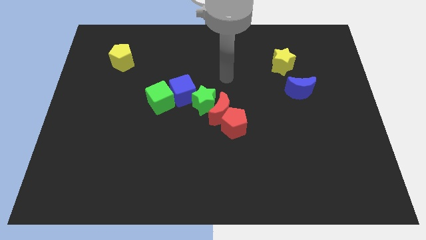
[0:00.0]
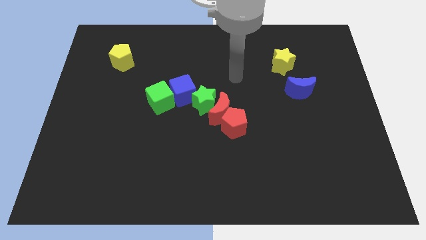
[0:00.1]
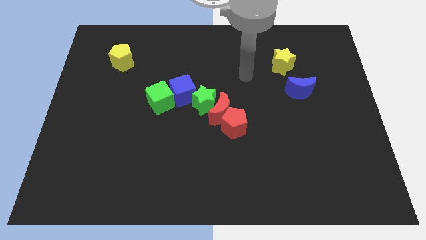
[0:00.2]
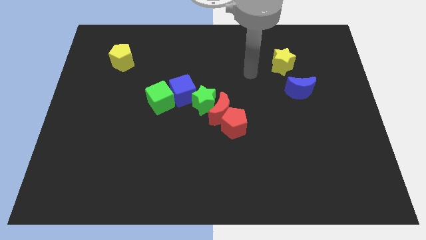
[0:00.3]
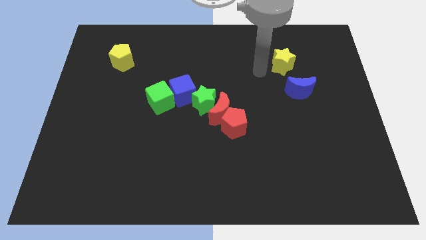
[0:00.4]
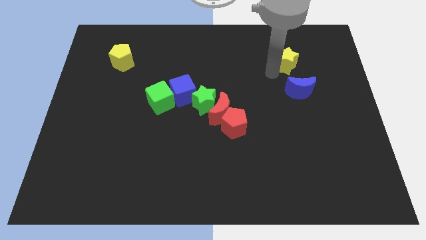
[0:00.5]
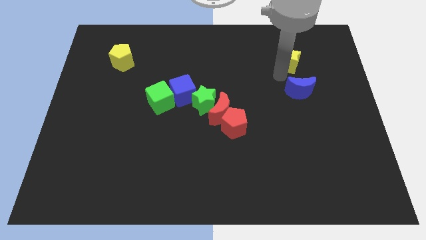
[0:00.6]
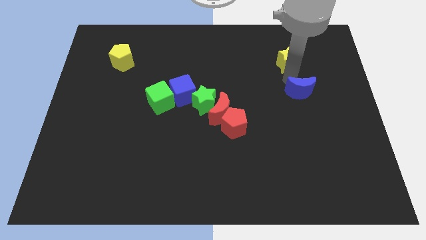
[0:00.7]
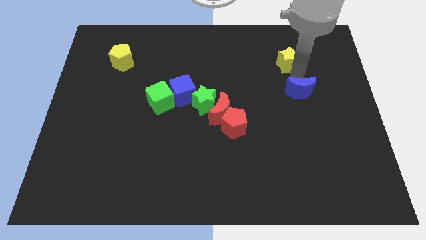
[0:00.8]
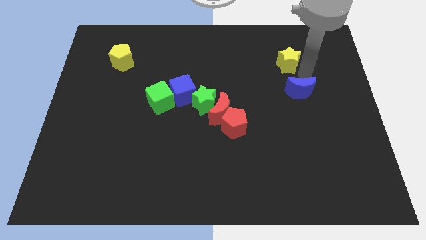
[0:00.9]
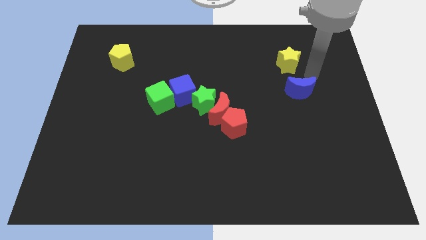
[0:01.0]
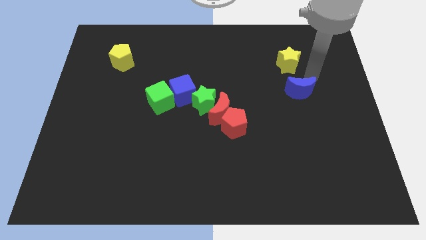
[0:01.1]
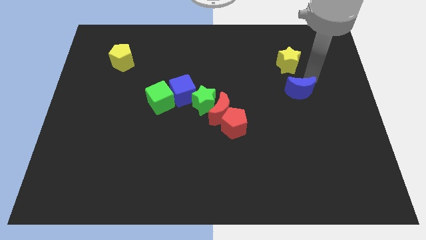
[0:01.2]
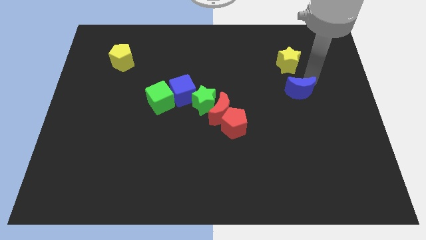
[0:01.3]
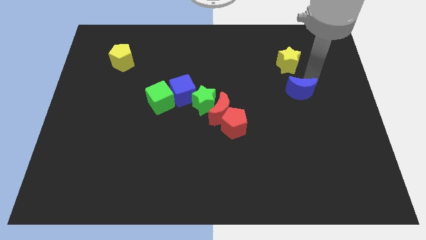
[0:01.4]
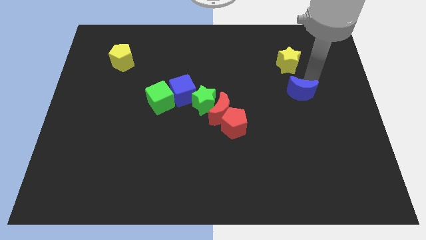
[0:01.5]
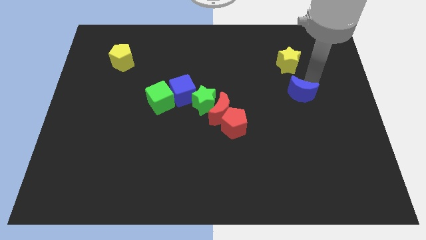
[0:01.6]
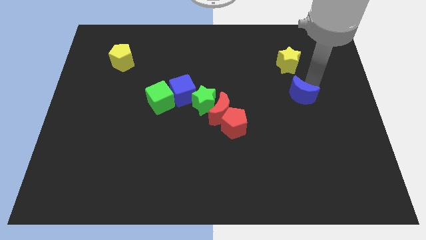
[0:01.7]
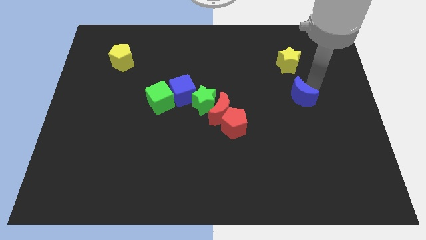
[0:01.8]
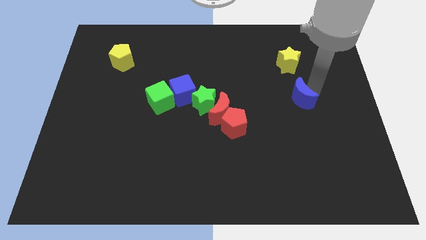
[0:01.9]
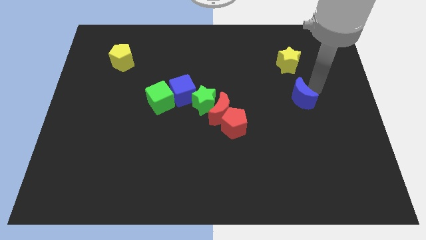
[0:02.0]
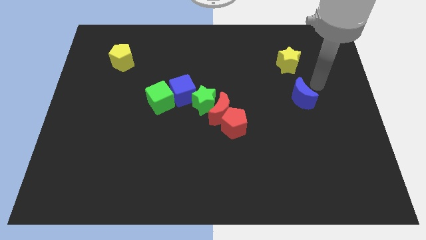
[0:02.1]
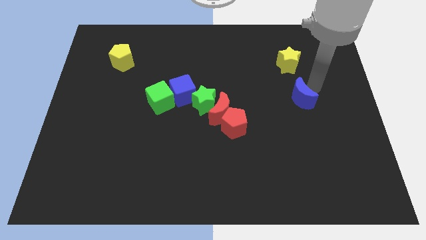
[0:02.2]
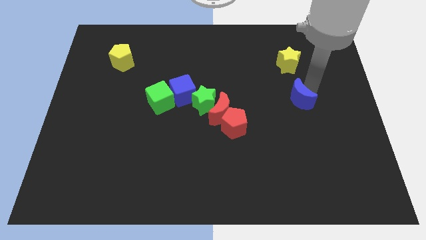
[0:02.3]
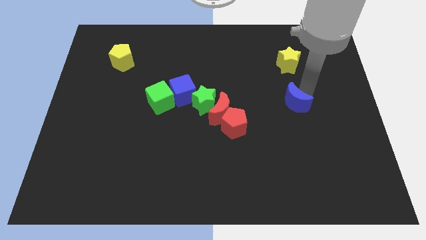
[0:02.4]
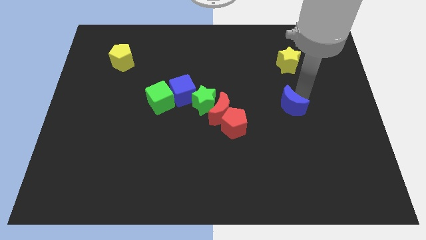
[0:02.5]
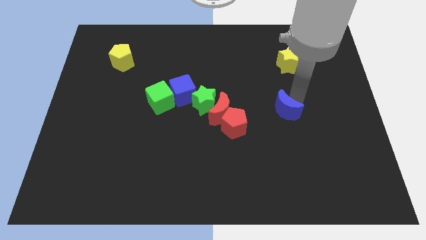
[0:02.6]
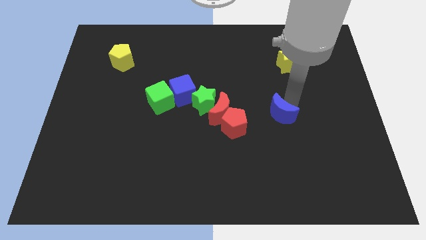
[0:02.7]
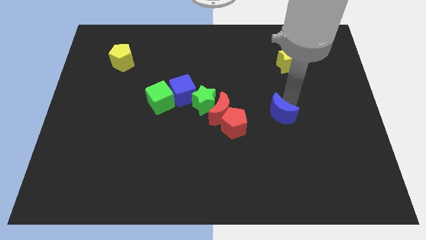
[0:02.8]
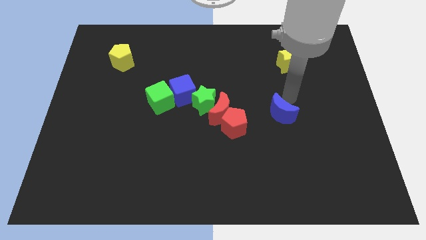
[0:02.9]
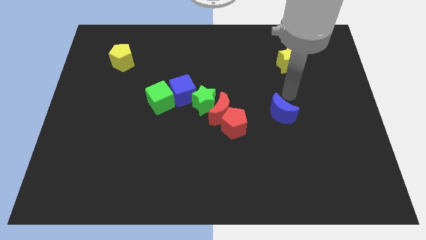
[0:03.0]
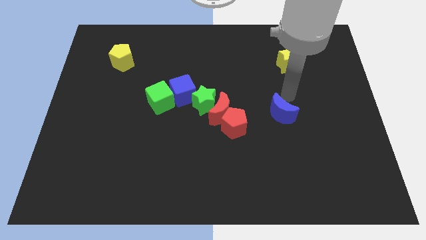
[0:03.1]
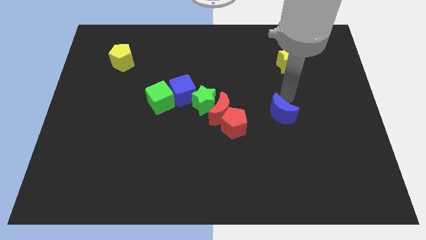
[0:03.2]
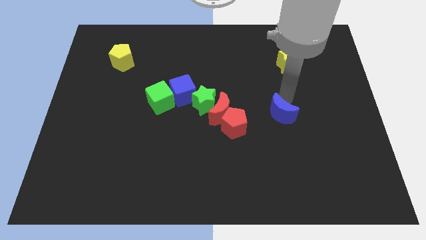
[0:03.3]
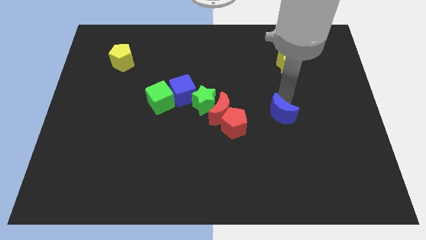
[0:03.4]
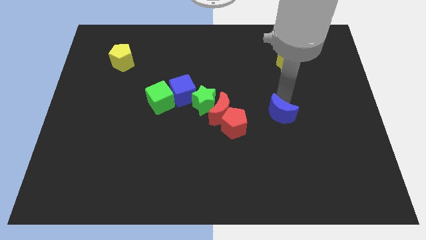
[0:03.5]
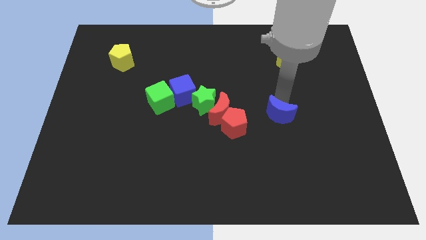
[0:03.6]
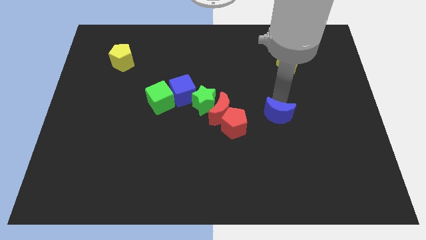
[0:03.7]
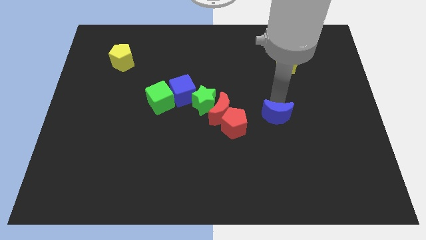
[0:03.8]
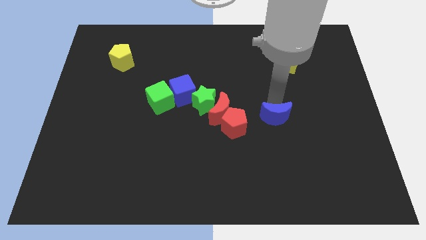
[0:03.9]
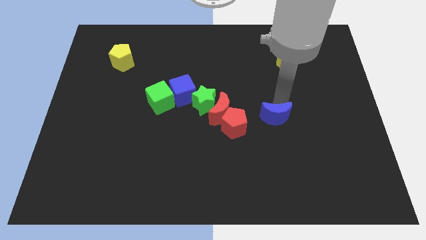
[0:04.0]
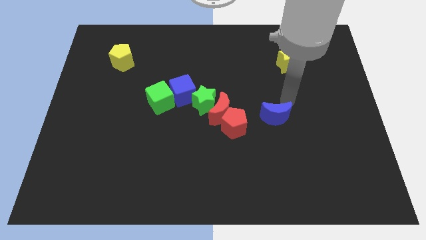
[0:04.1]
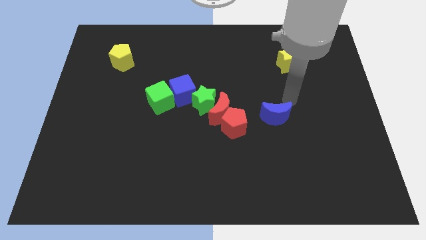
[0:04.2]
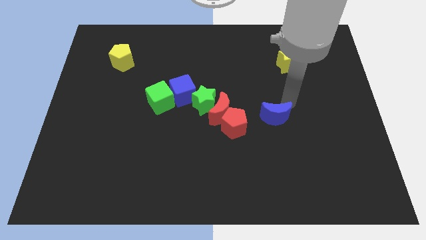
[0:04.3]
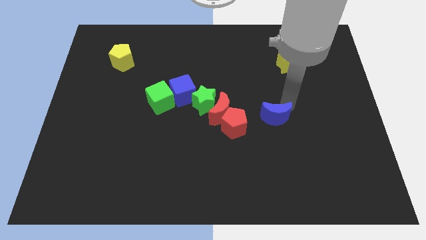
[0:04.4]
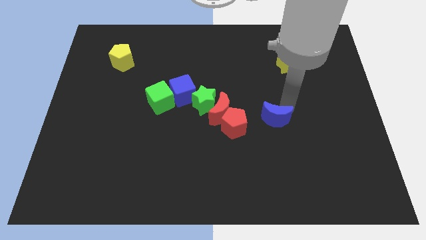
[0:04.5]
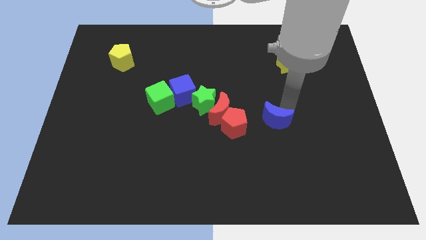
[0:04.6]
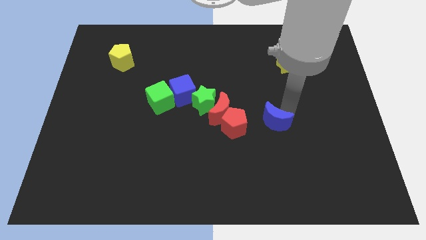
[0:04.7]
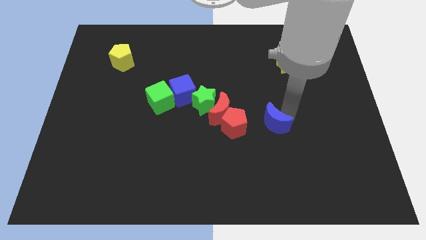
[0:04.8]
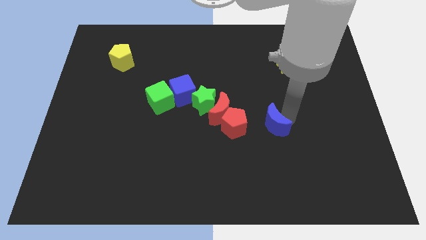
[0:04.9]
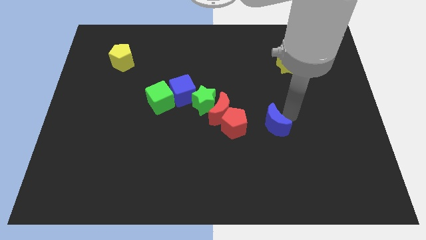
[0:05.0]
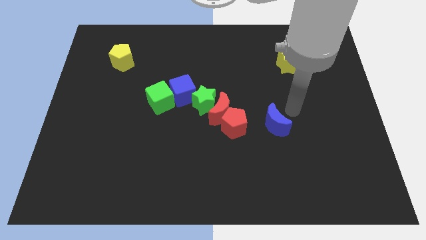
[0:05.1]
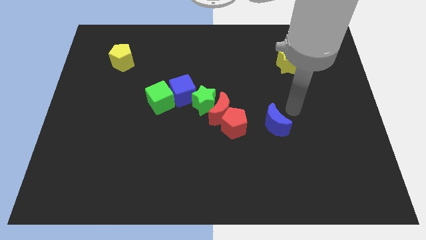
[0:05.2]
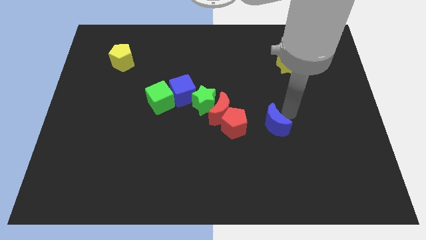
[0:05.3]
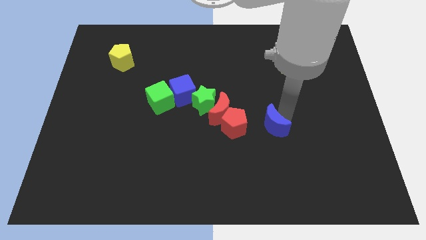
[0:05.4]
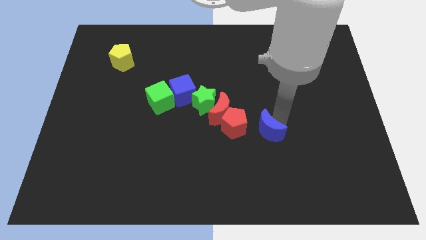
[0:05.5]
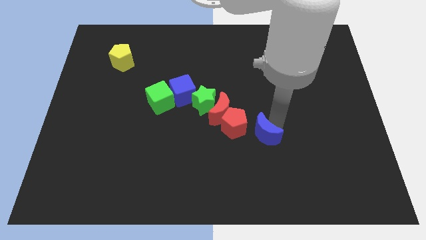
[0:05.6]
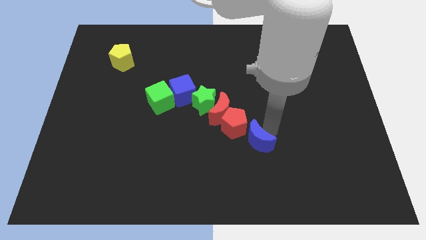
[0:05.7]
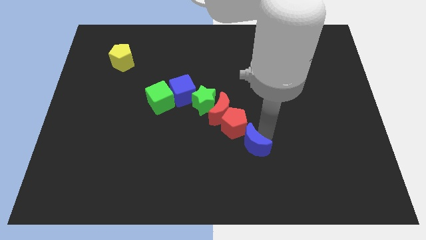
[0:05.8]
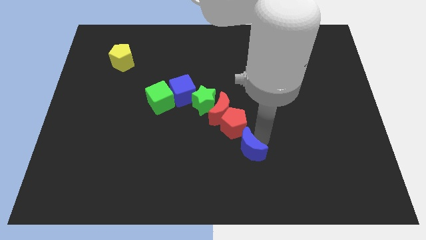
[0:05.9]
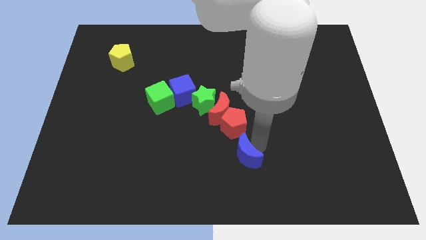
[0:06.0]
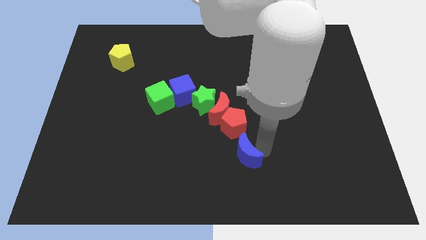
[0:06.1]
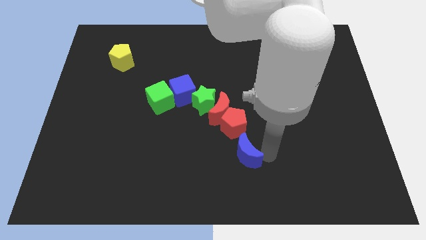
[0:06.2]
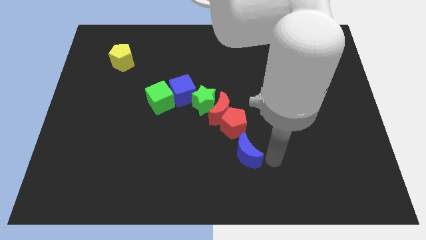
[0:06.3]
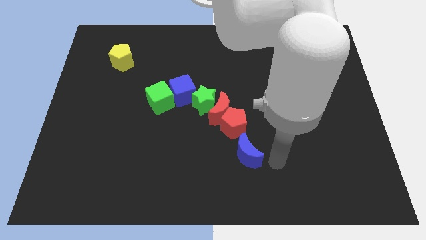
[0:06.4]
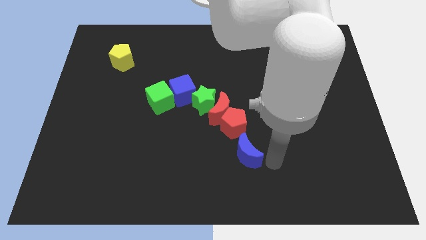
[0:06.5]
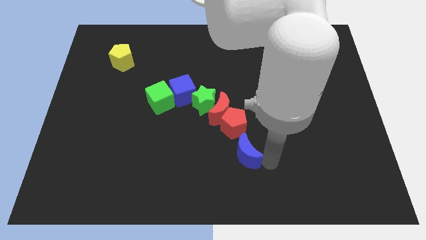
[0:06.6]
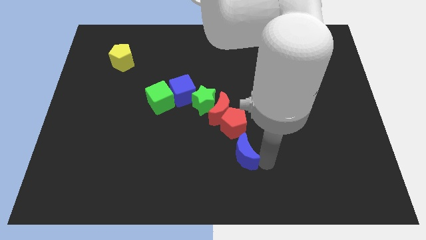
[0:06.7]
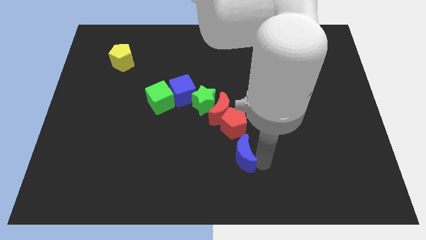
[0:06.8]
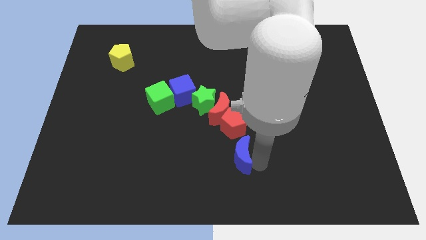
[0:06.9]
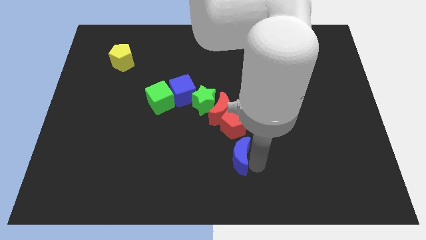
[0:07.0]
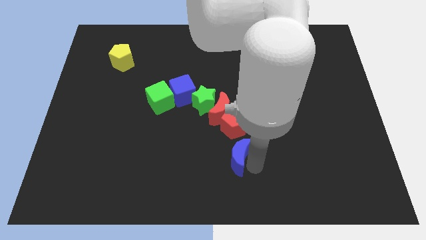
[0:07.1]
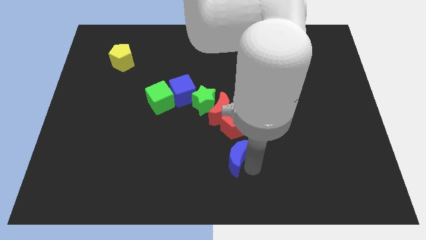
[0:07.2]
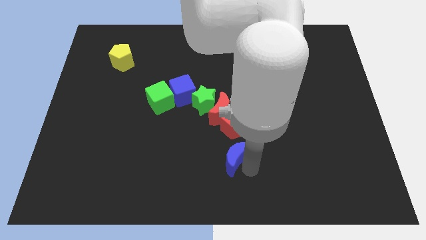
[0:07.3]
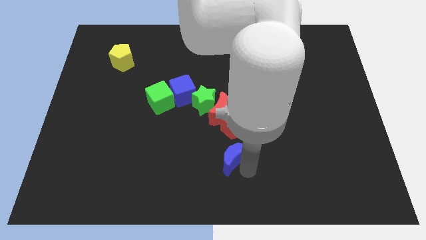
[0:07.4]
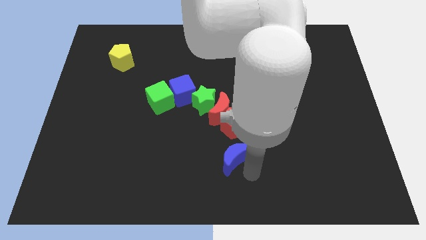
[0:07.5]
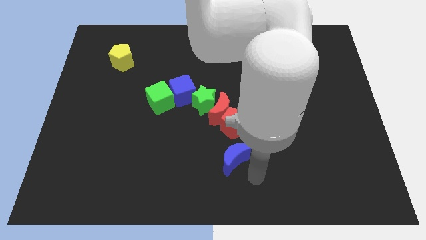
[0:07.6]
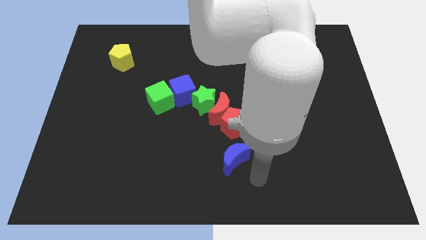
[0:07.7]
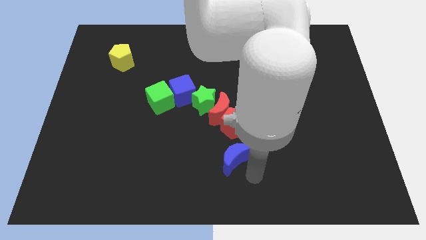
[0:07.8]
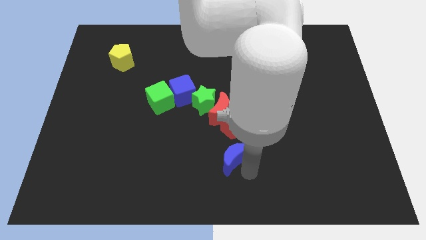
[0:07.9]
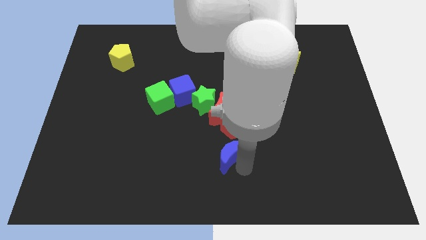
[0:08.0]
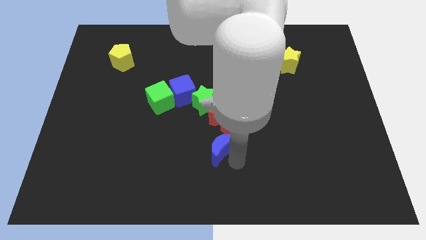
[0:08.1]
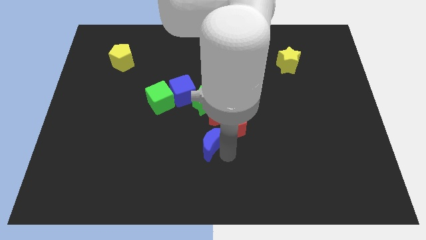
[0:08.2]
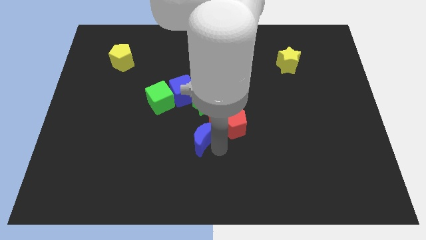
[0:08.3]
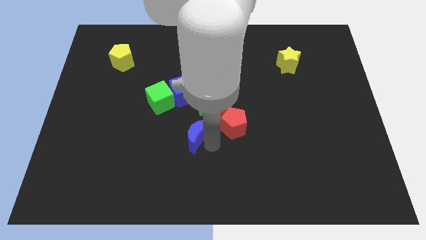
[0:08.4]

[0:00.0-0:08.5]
push the blue moon below the blue cube
